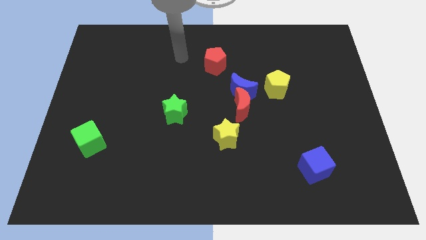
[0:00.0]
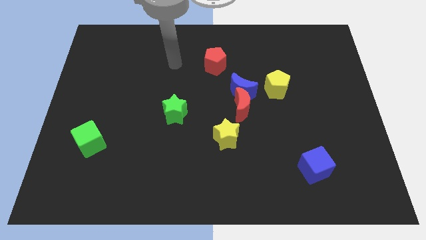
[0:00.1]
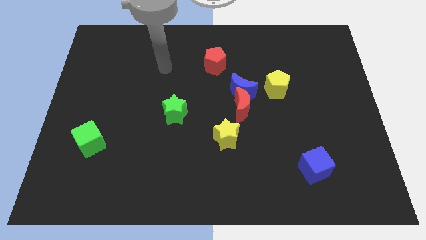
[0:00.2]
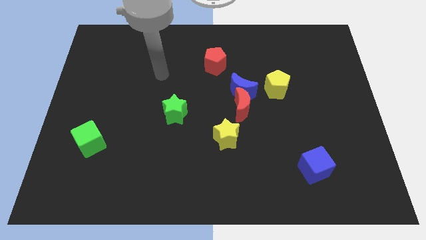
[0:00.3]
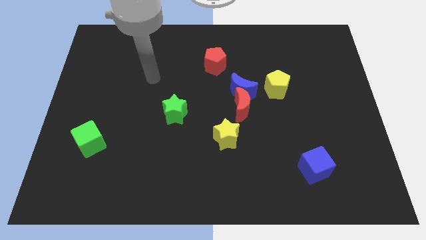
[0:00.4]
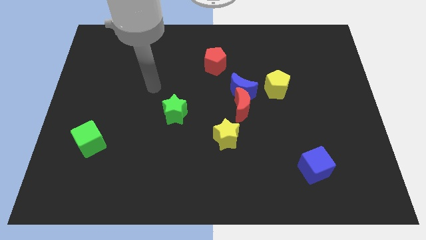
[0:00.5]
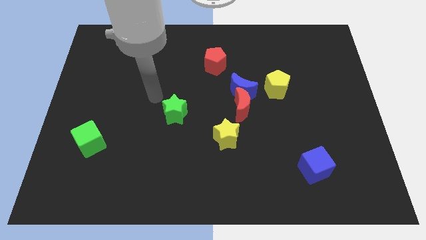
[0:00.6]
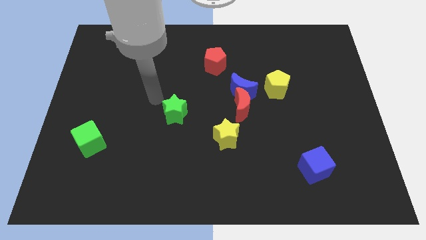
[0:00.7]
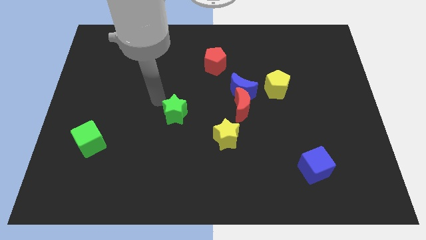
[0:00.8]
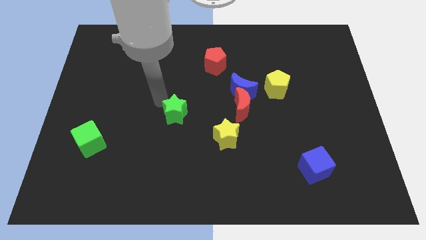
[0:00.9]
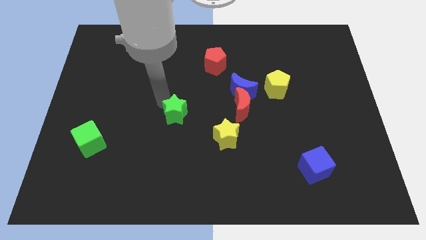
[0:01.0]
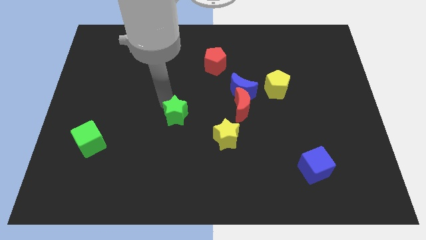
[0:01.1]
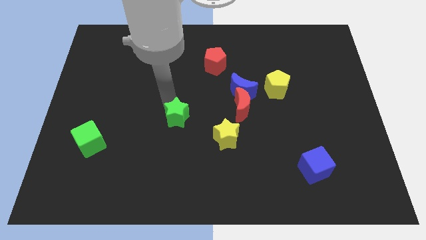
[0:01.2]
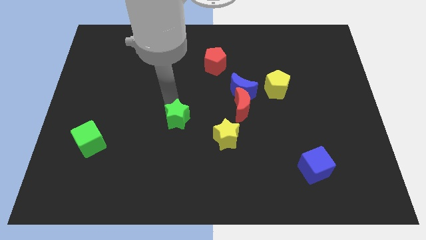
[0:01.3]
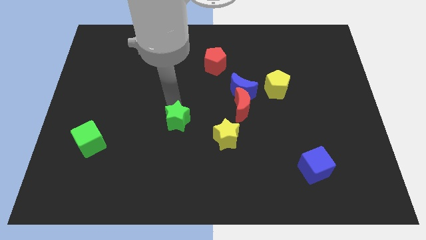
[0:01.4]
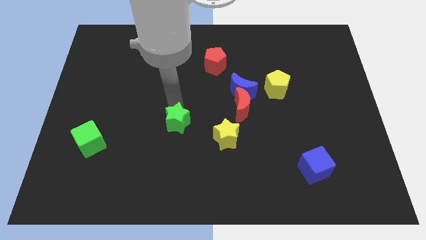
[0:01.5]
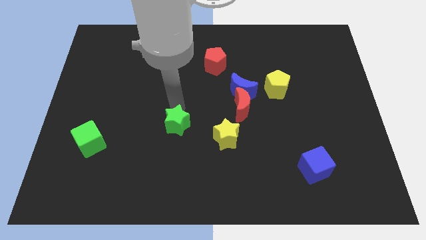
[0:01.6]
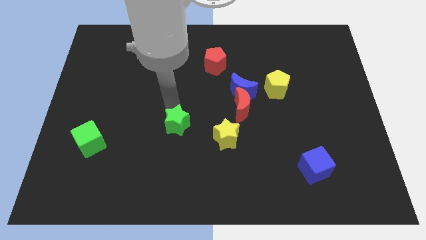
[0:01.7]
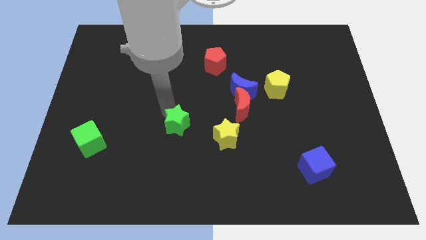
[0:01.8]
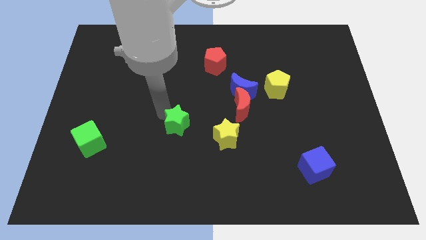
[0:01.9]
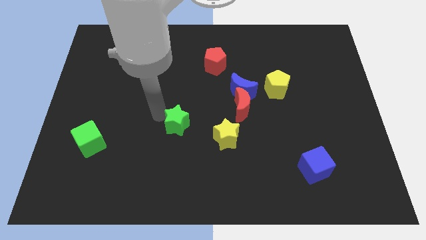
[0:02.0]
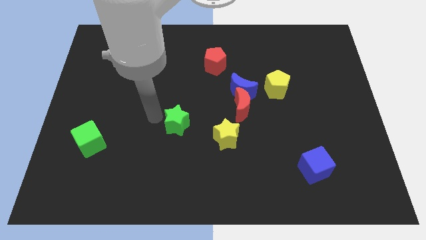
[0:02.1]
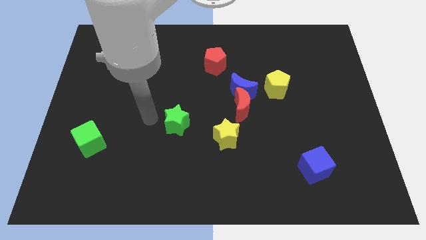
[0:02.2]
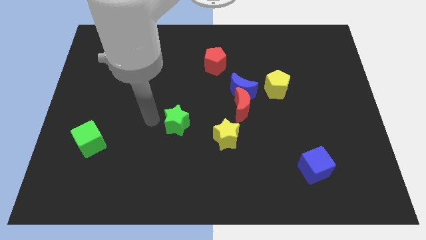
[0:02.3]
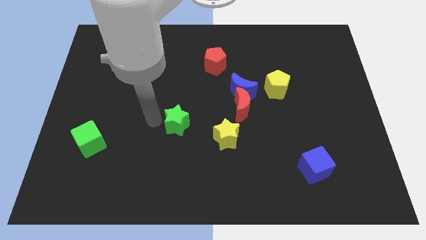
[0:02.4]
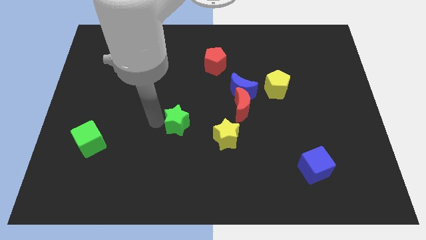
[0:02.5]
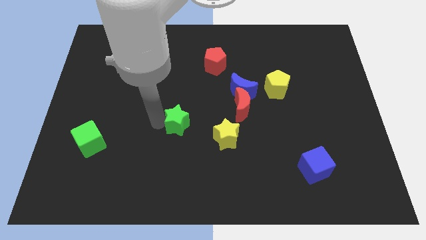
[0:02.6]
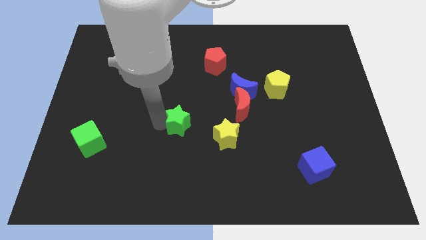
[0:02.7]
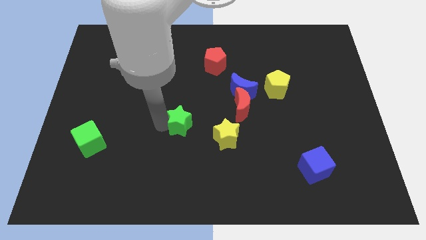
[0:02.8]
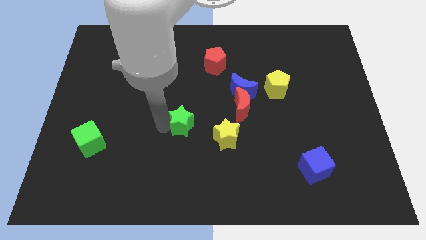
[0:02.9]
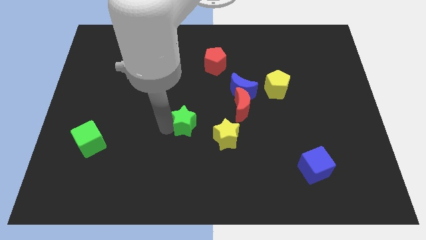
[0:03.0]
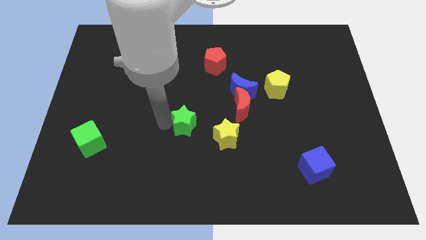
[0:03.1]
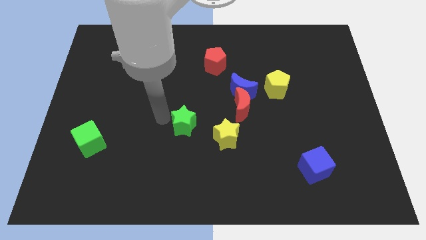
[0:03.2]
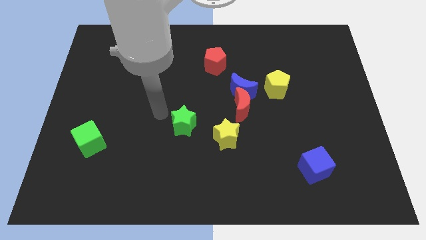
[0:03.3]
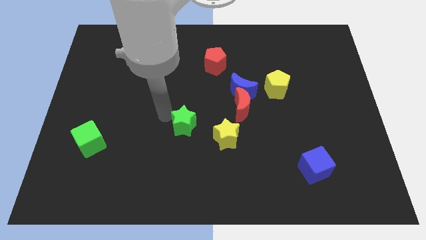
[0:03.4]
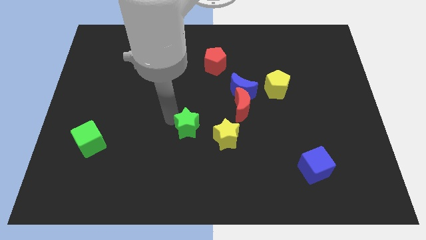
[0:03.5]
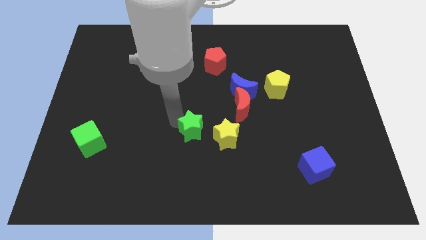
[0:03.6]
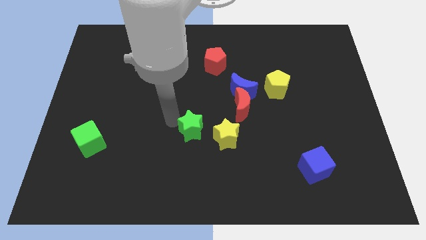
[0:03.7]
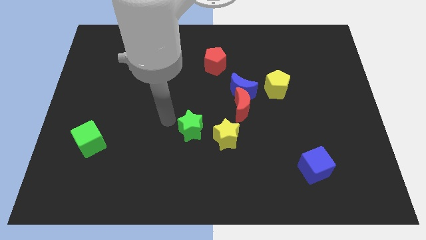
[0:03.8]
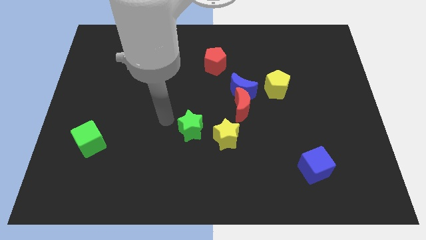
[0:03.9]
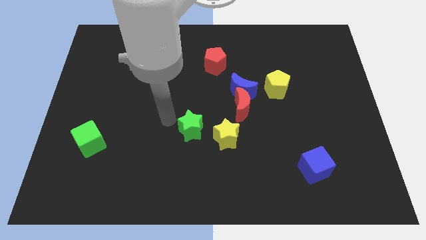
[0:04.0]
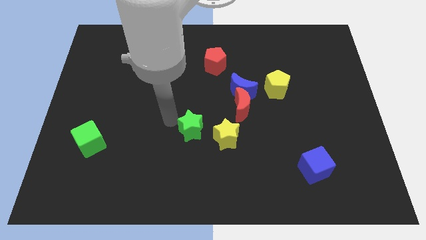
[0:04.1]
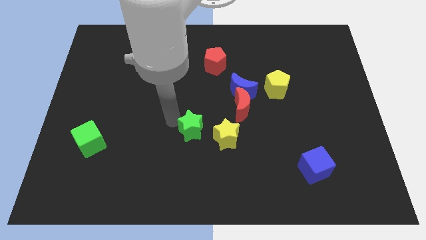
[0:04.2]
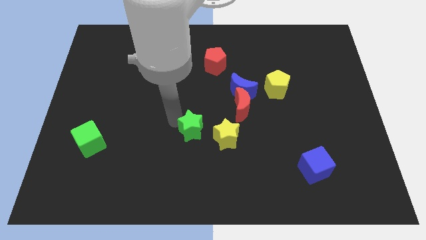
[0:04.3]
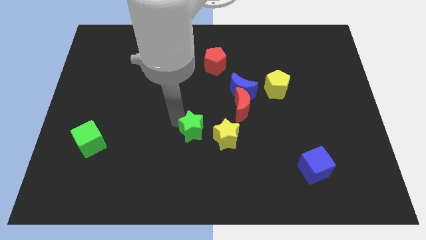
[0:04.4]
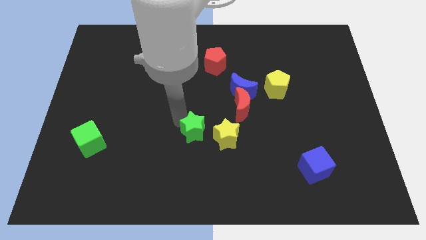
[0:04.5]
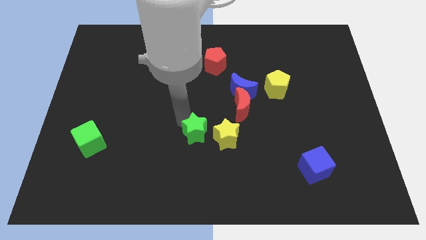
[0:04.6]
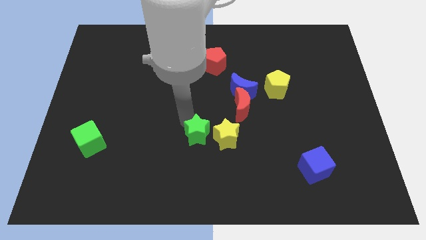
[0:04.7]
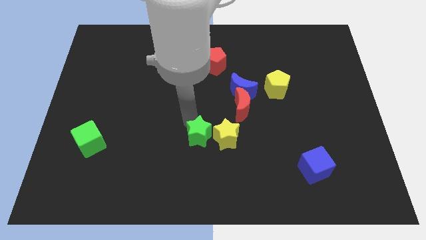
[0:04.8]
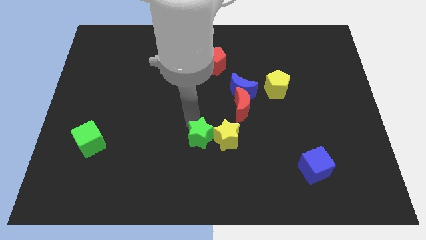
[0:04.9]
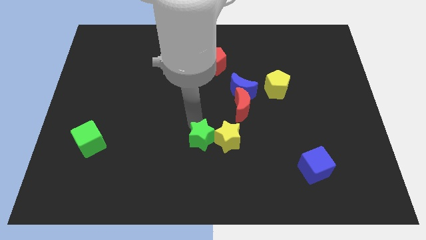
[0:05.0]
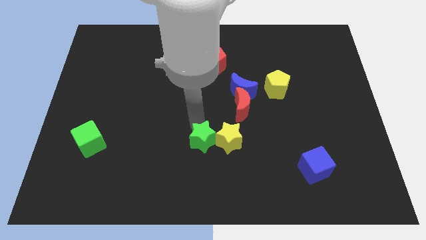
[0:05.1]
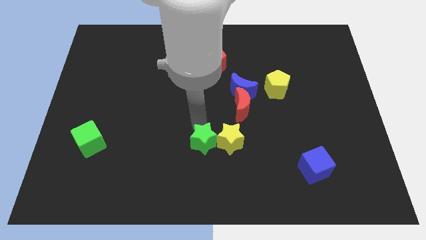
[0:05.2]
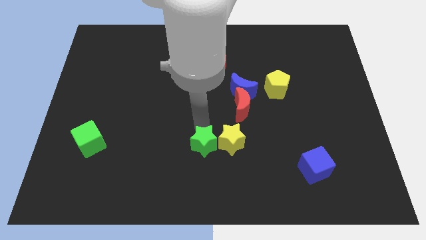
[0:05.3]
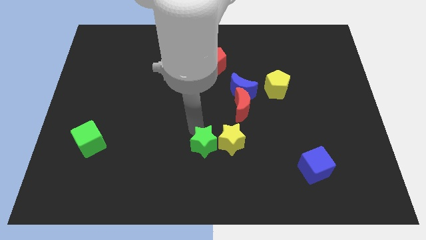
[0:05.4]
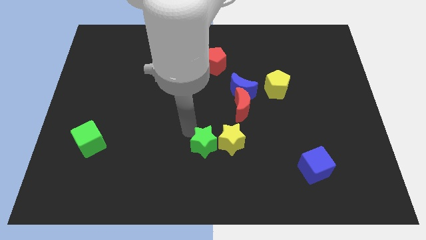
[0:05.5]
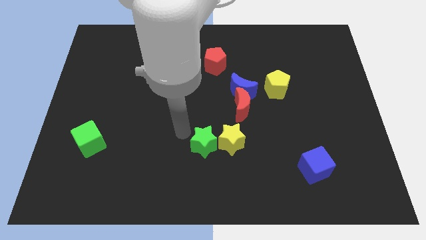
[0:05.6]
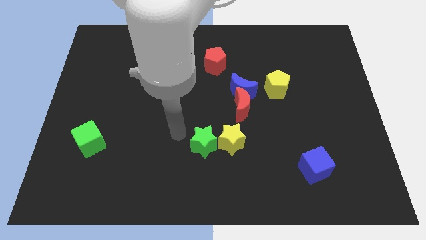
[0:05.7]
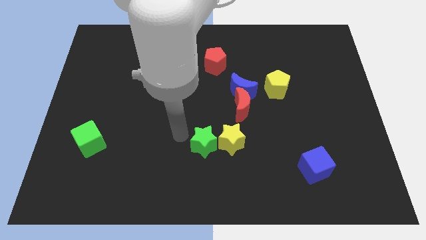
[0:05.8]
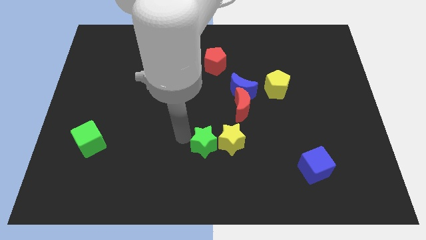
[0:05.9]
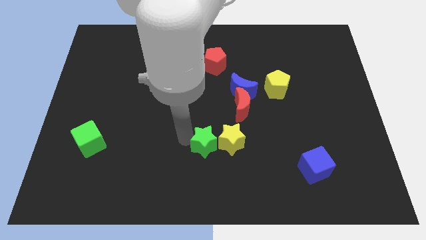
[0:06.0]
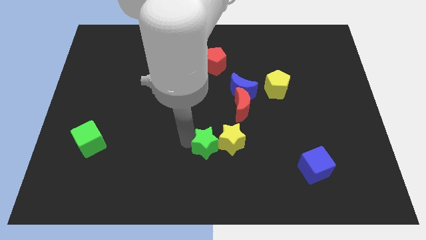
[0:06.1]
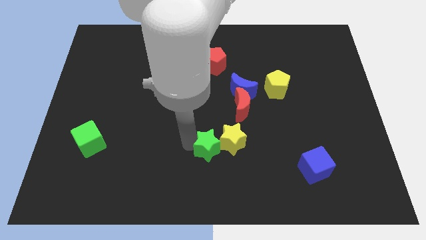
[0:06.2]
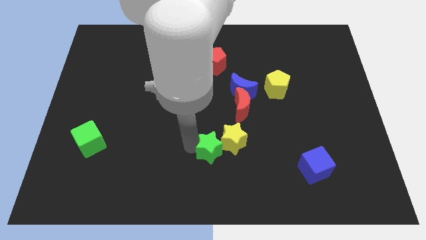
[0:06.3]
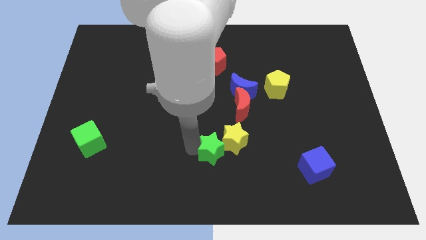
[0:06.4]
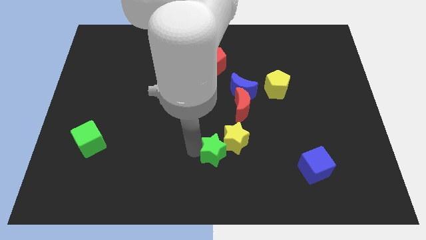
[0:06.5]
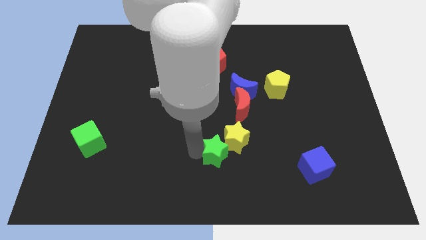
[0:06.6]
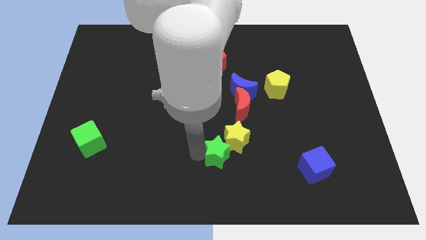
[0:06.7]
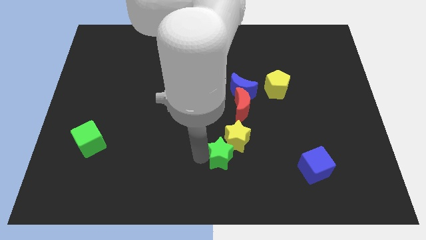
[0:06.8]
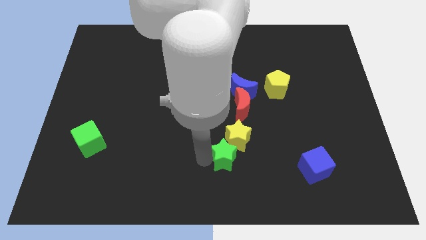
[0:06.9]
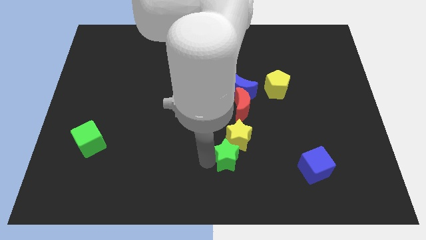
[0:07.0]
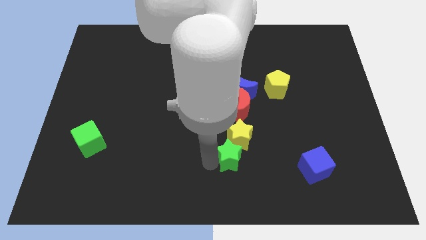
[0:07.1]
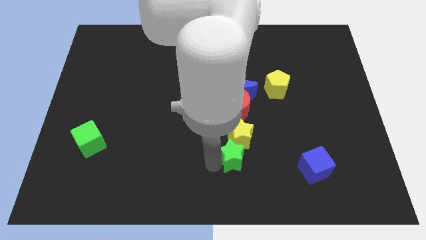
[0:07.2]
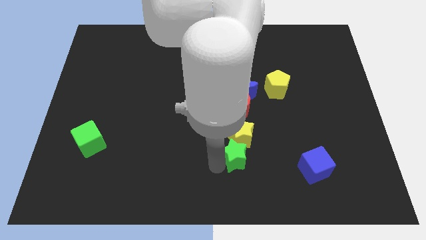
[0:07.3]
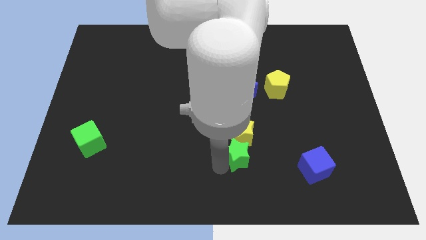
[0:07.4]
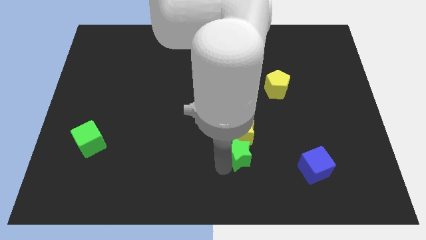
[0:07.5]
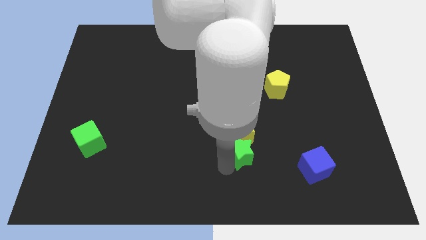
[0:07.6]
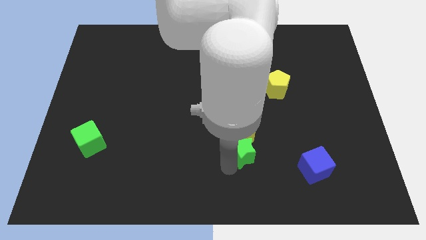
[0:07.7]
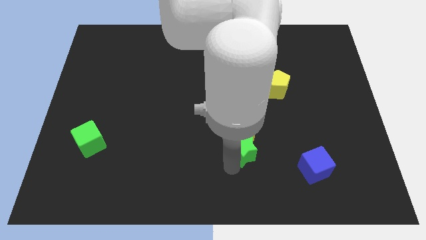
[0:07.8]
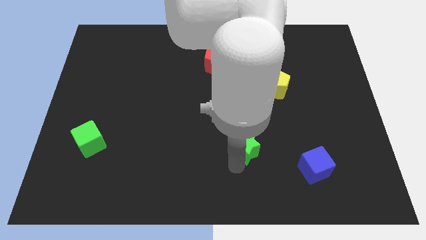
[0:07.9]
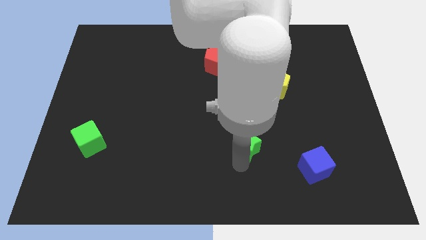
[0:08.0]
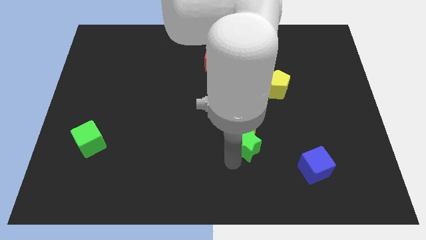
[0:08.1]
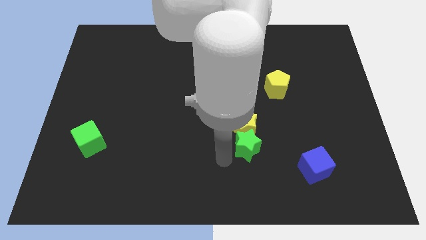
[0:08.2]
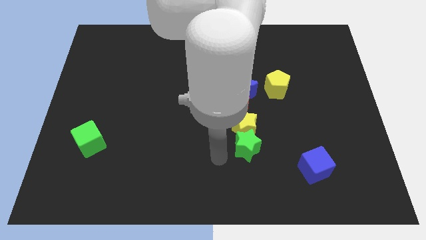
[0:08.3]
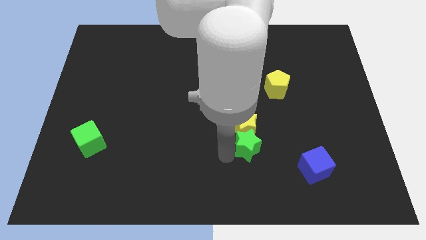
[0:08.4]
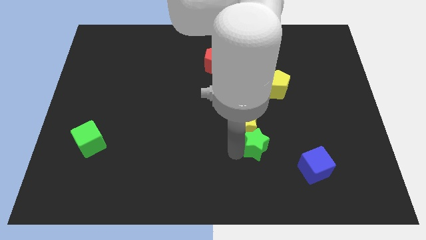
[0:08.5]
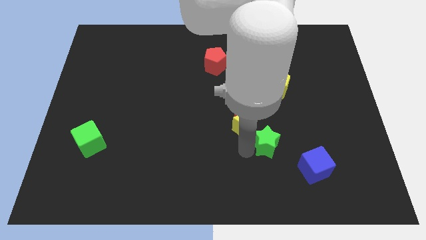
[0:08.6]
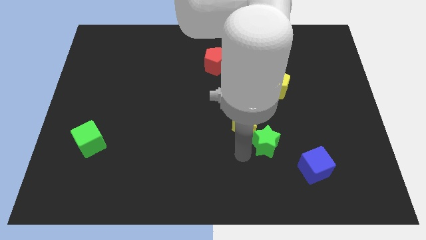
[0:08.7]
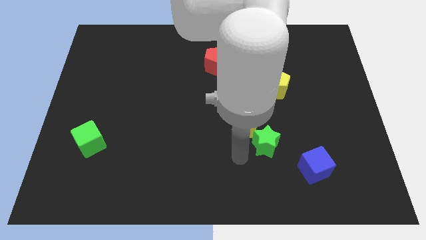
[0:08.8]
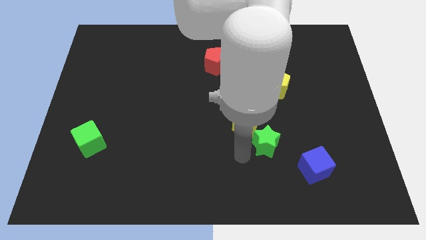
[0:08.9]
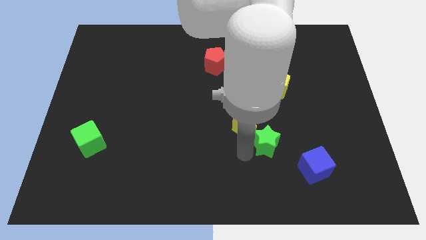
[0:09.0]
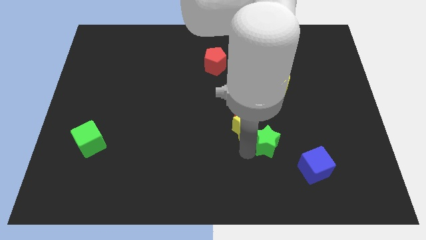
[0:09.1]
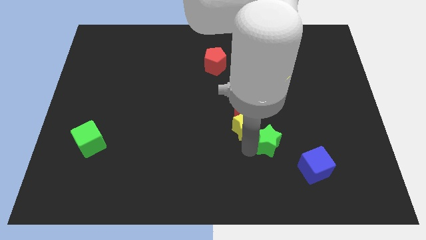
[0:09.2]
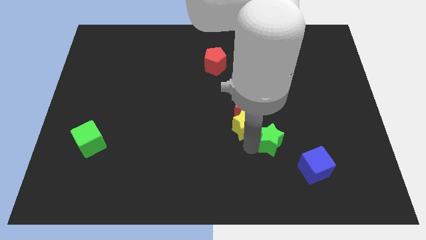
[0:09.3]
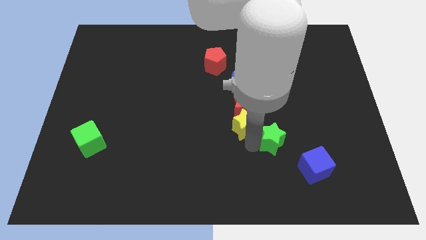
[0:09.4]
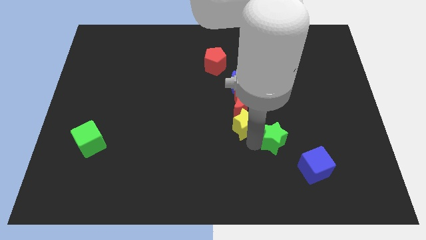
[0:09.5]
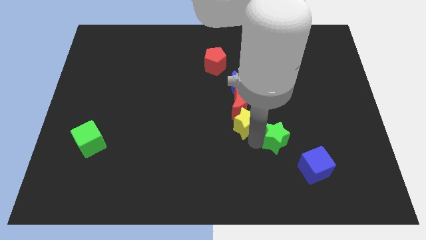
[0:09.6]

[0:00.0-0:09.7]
move the green star right
